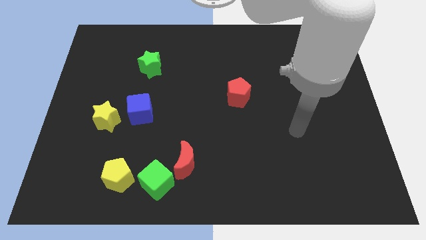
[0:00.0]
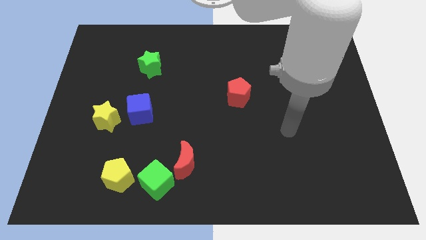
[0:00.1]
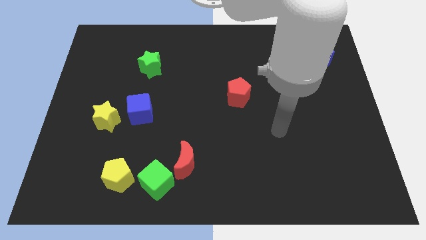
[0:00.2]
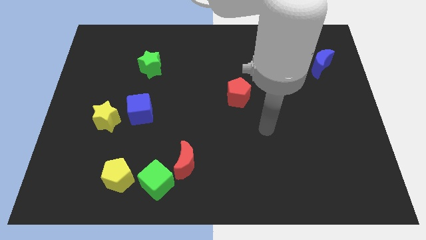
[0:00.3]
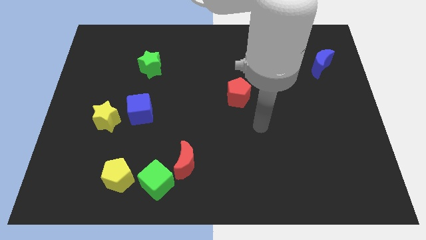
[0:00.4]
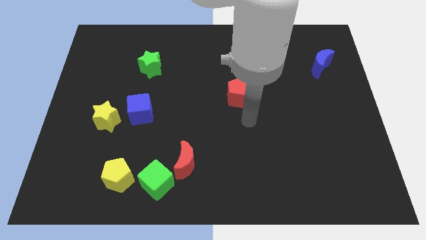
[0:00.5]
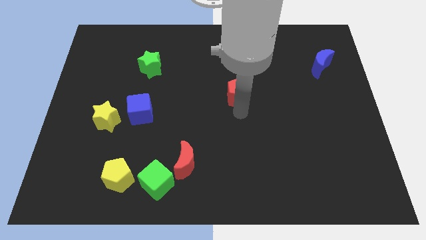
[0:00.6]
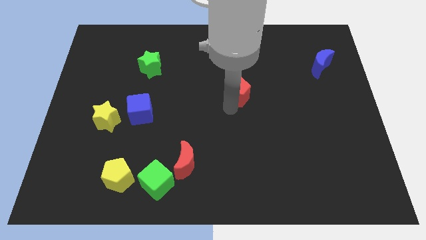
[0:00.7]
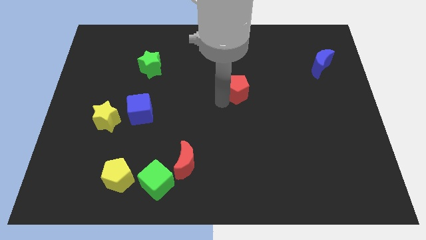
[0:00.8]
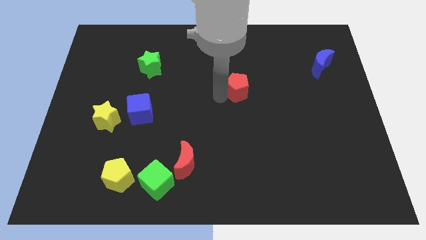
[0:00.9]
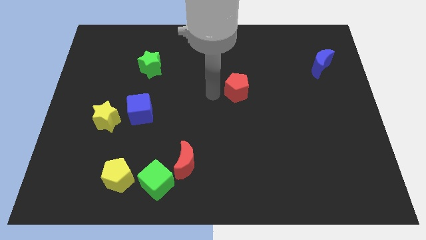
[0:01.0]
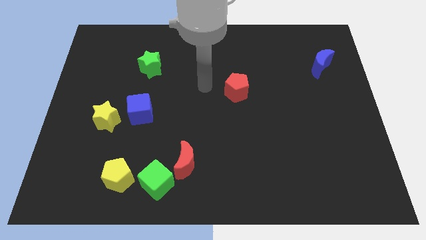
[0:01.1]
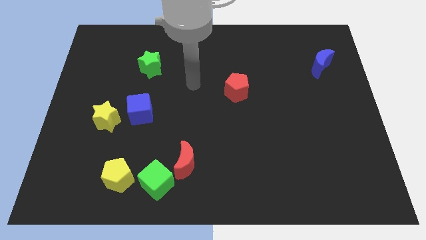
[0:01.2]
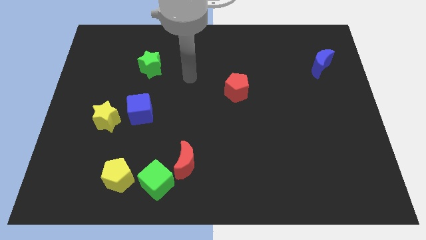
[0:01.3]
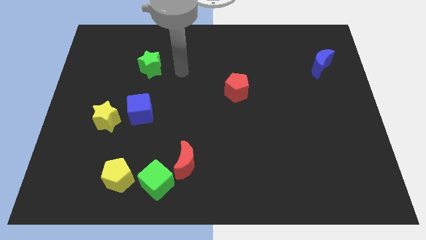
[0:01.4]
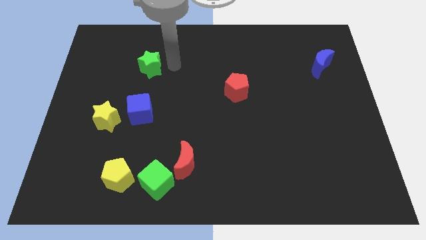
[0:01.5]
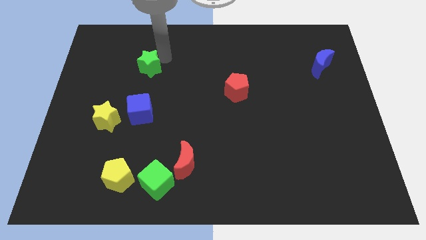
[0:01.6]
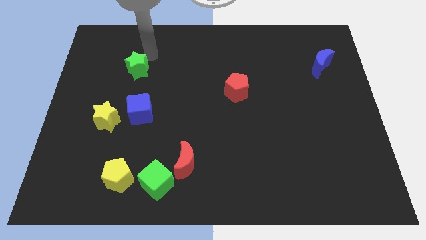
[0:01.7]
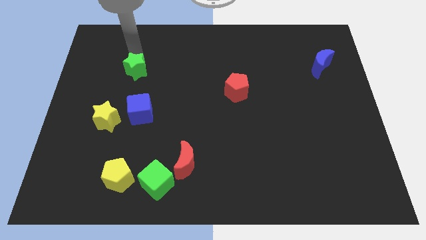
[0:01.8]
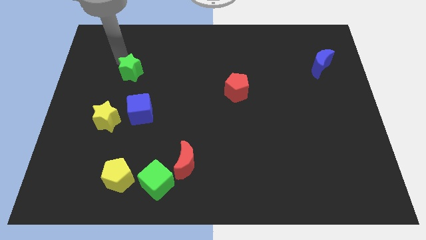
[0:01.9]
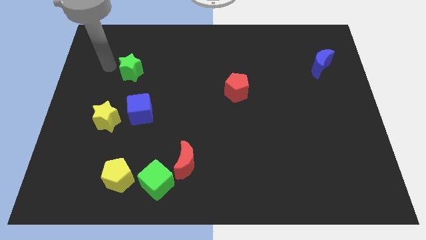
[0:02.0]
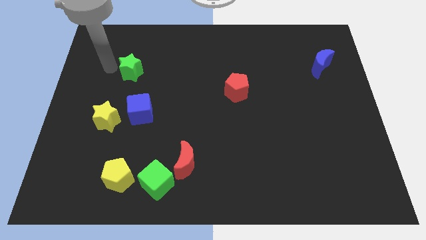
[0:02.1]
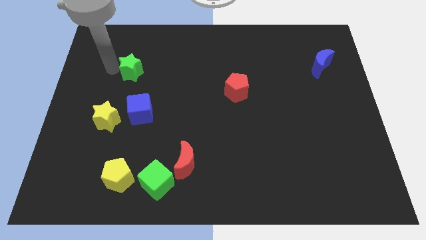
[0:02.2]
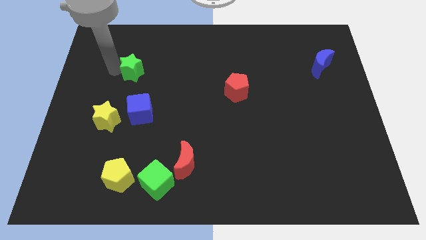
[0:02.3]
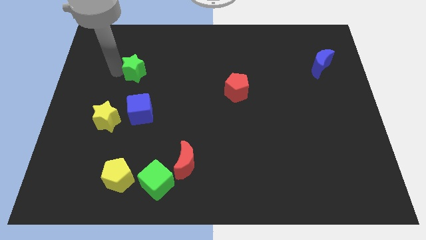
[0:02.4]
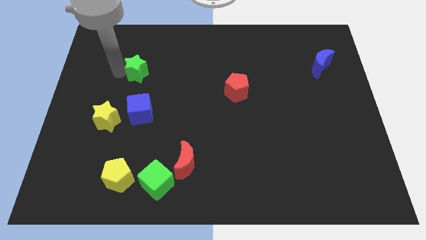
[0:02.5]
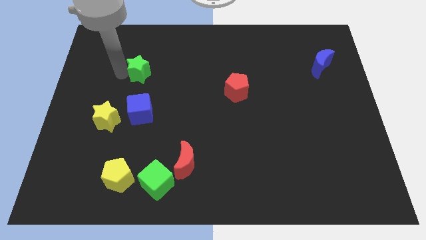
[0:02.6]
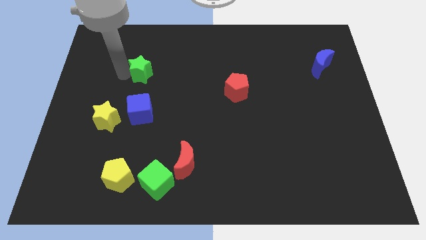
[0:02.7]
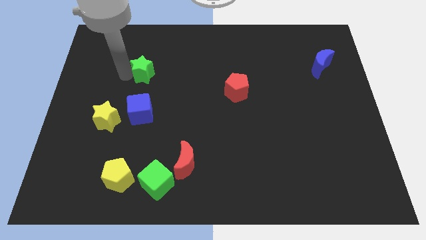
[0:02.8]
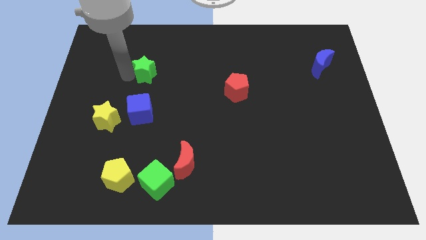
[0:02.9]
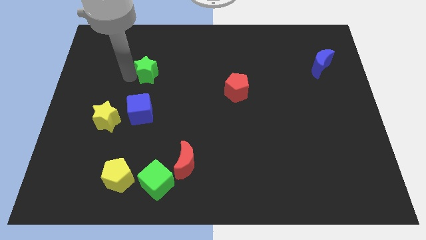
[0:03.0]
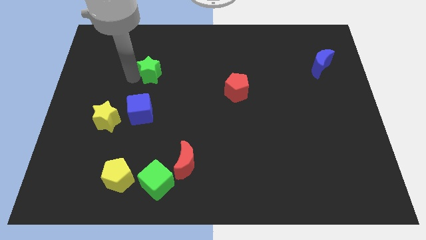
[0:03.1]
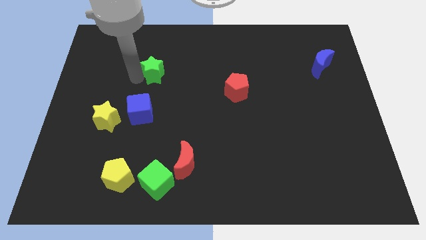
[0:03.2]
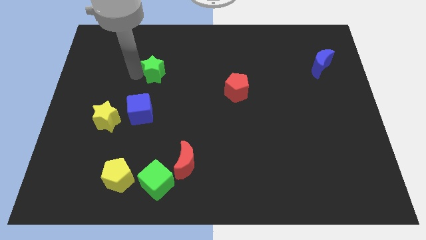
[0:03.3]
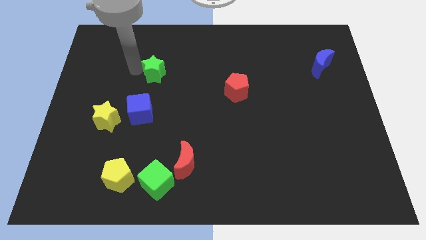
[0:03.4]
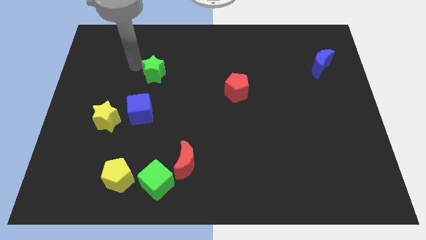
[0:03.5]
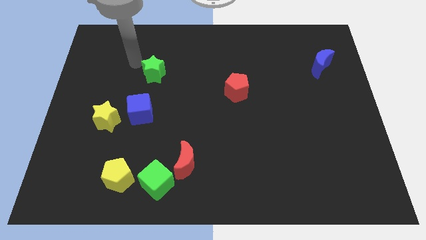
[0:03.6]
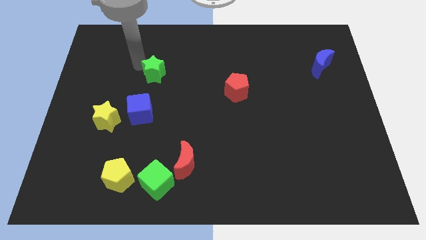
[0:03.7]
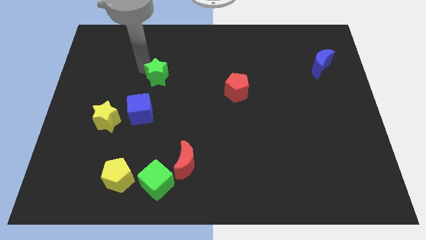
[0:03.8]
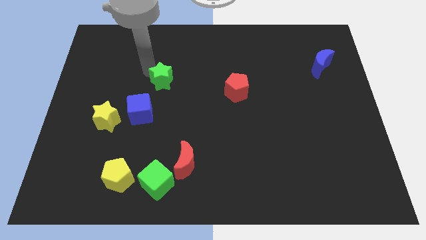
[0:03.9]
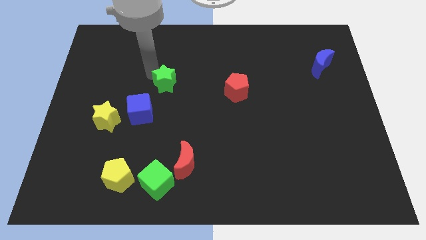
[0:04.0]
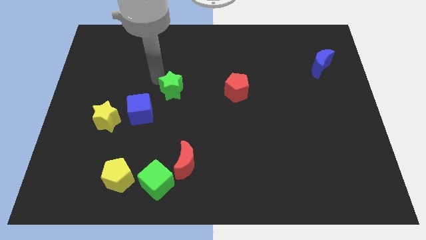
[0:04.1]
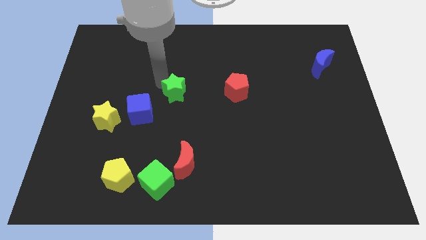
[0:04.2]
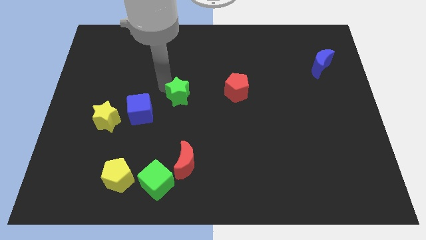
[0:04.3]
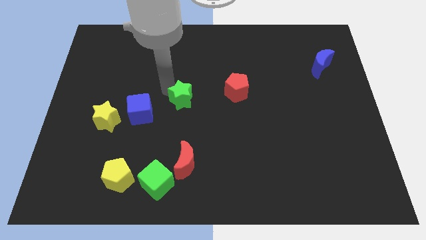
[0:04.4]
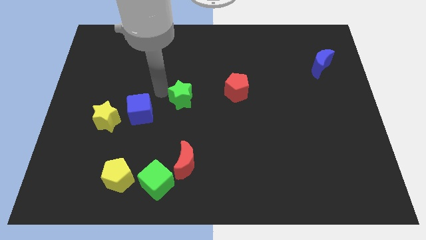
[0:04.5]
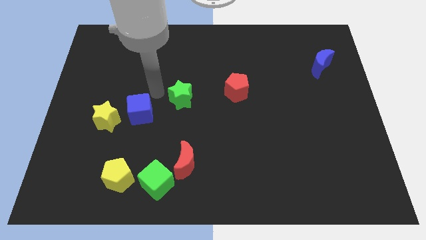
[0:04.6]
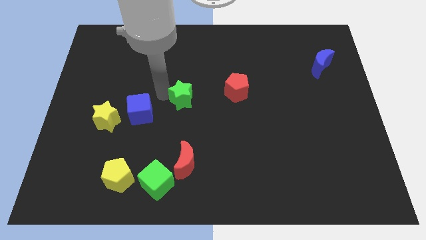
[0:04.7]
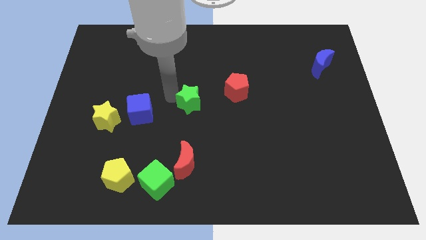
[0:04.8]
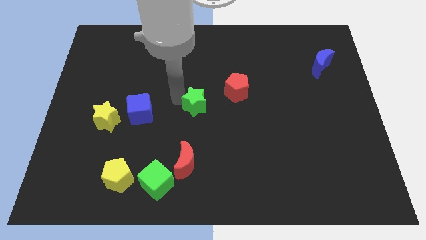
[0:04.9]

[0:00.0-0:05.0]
push the green star diagonally down and to the left of the red pentagon

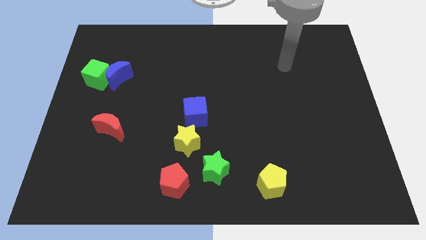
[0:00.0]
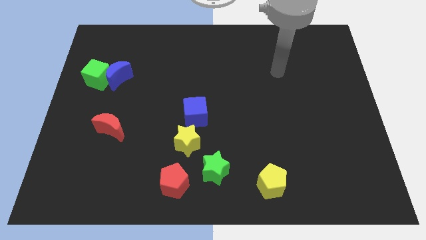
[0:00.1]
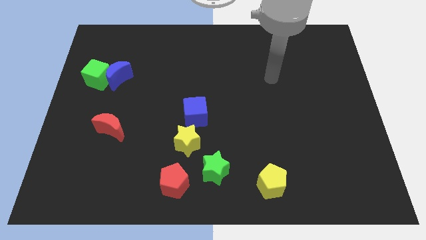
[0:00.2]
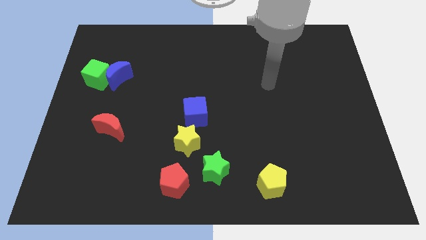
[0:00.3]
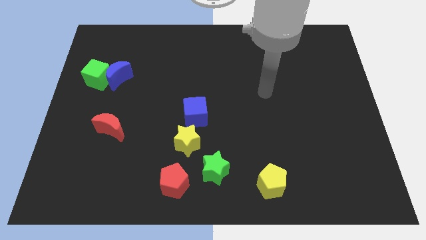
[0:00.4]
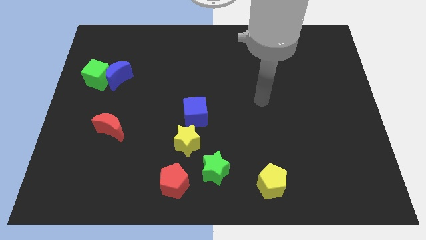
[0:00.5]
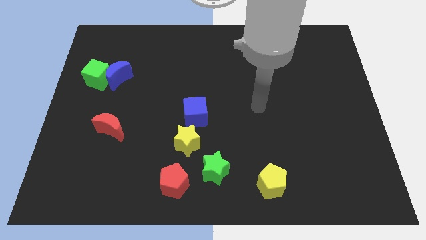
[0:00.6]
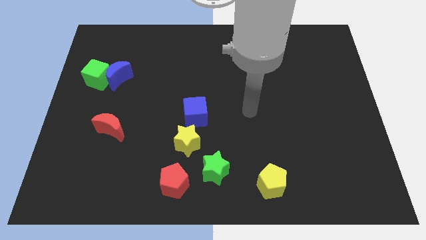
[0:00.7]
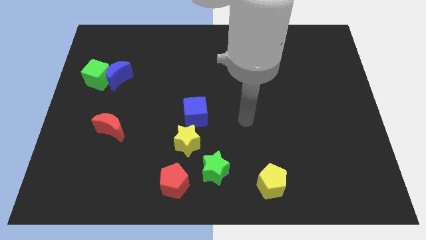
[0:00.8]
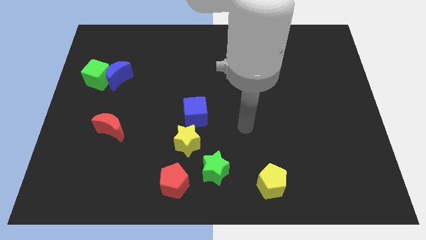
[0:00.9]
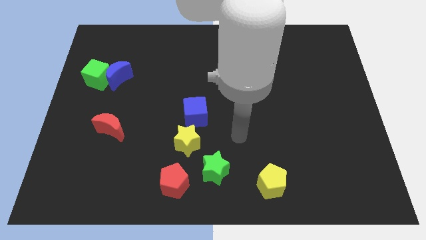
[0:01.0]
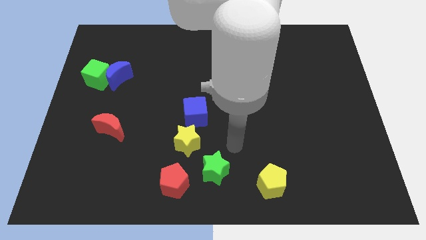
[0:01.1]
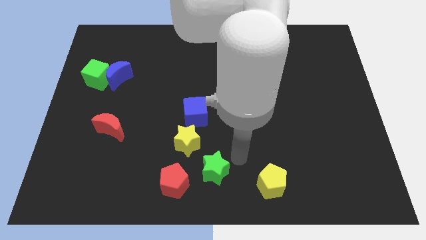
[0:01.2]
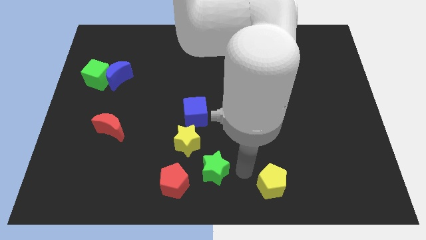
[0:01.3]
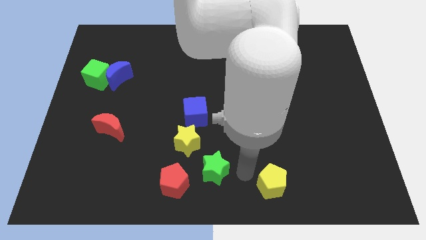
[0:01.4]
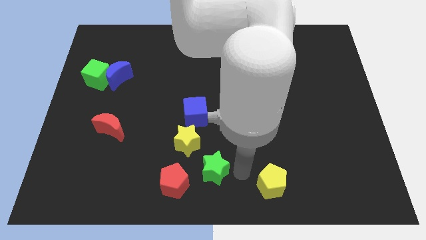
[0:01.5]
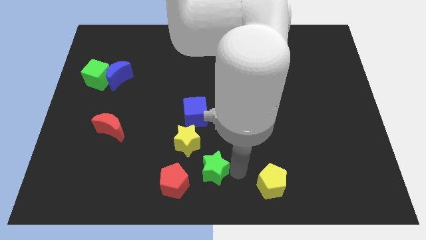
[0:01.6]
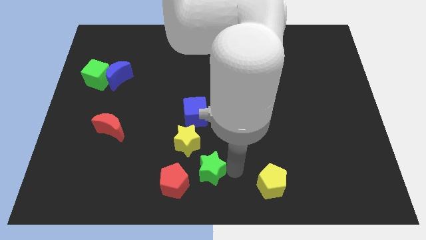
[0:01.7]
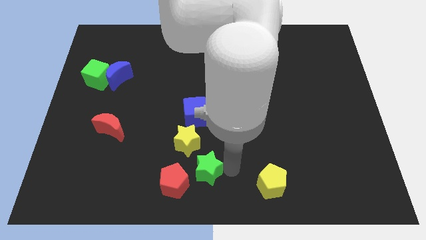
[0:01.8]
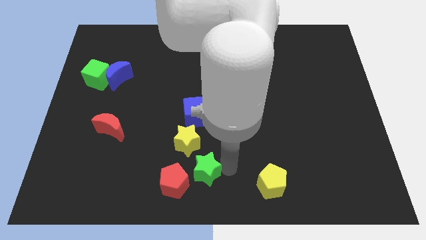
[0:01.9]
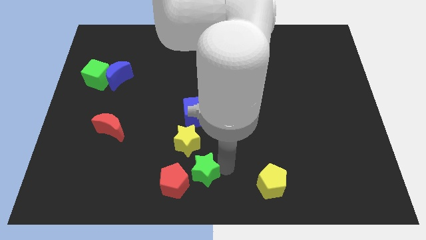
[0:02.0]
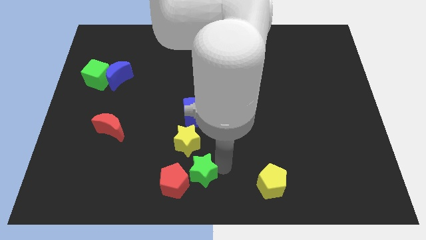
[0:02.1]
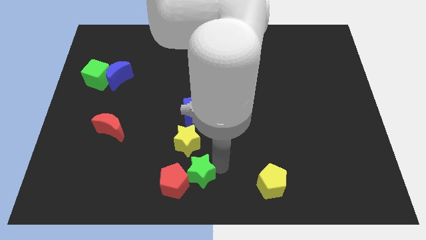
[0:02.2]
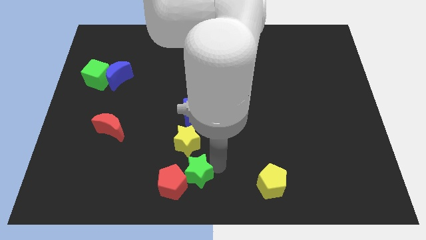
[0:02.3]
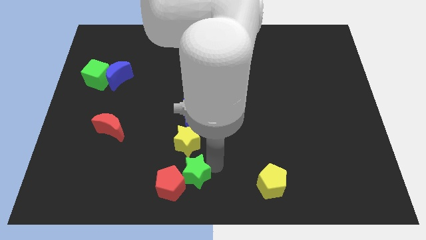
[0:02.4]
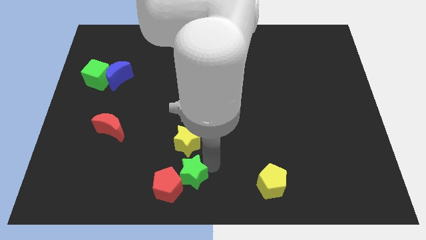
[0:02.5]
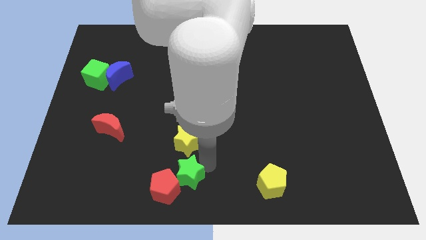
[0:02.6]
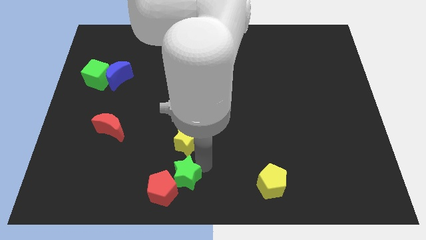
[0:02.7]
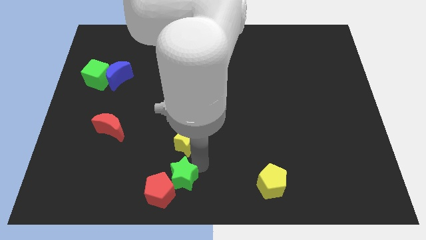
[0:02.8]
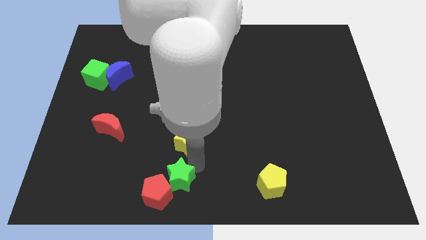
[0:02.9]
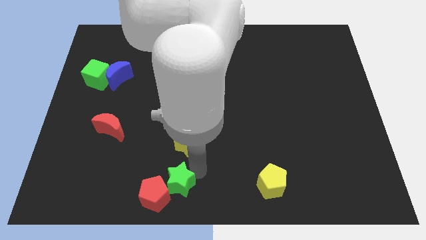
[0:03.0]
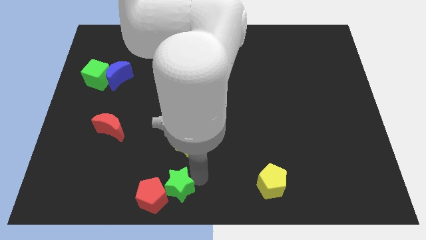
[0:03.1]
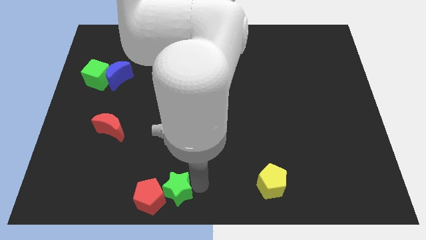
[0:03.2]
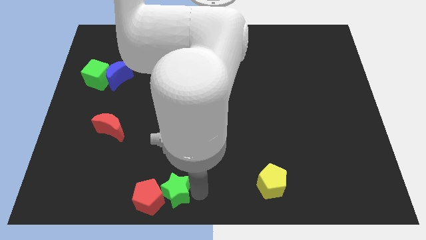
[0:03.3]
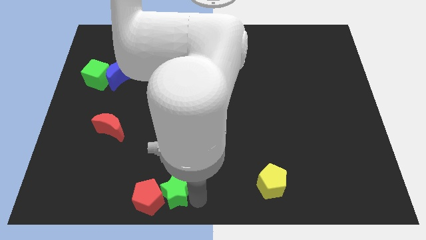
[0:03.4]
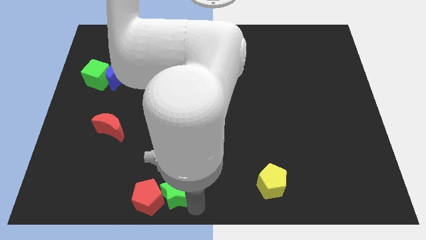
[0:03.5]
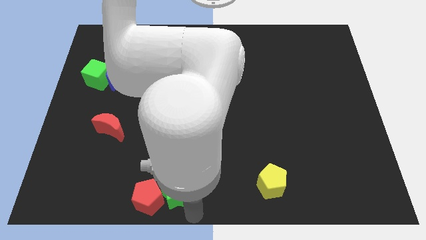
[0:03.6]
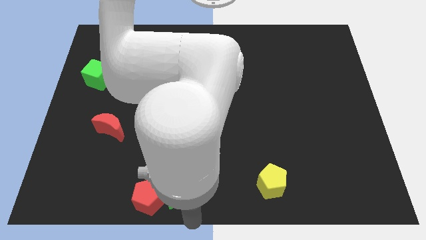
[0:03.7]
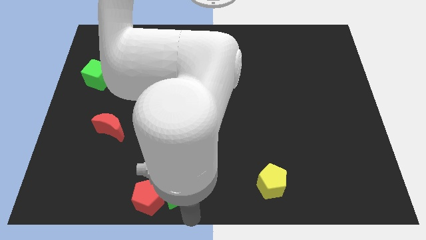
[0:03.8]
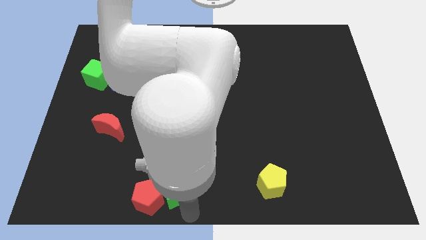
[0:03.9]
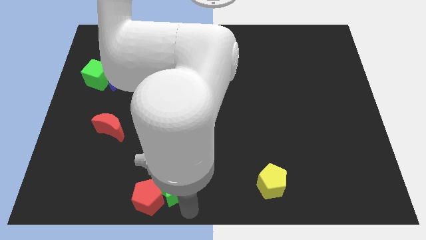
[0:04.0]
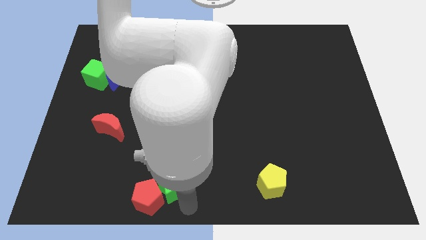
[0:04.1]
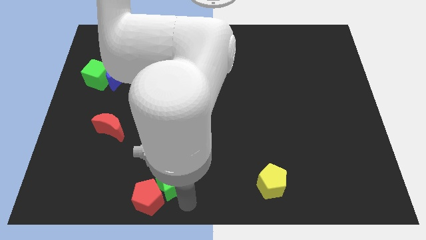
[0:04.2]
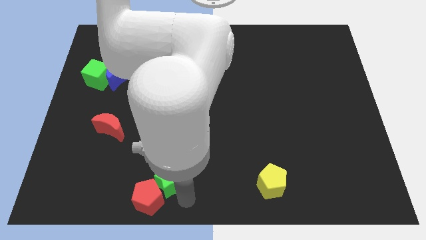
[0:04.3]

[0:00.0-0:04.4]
move the green star to the bottom left of the yellow star
